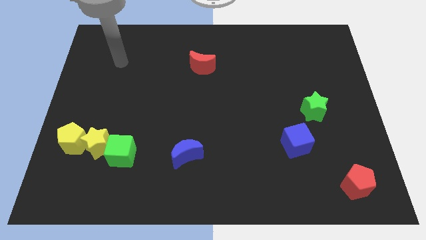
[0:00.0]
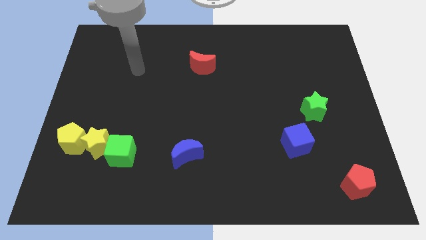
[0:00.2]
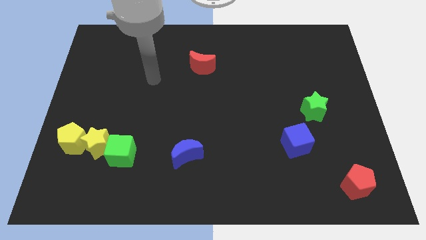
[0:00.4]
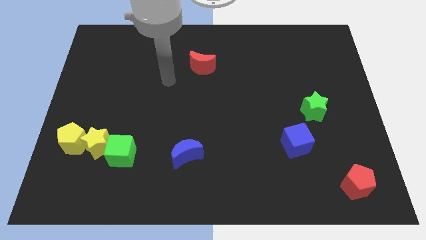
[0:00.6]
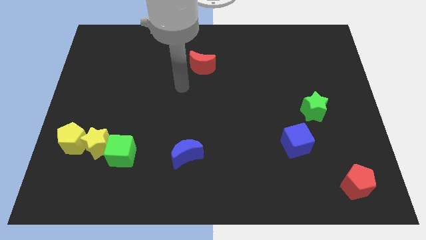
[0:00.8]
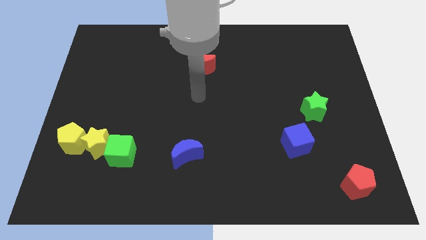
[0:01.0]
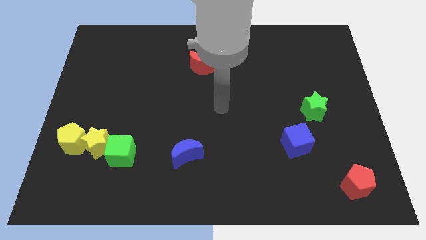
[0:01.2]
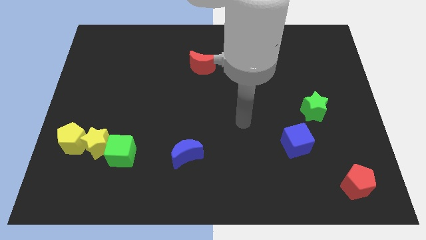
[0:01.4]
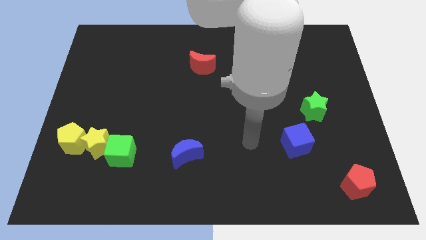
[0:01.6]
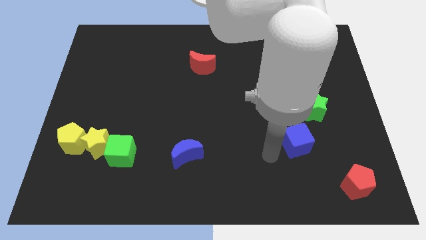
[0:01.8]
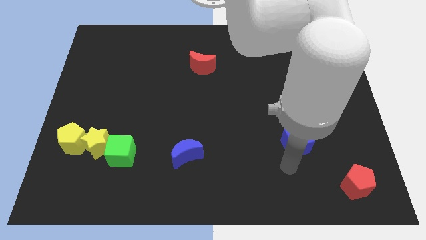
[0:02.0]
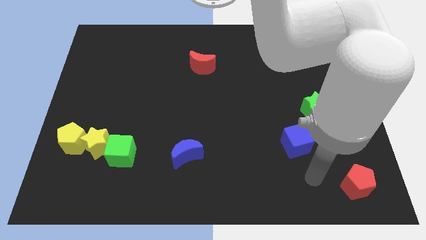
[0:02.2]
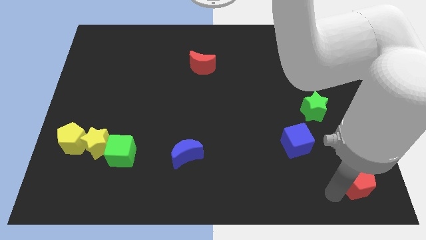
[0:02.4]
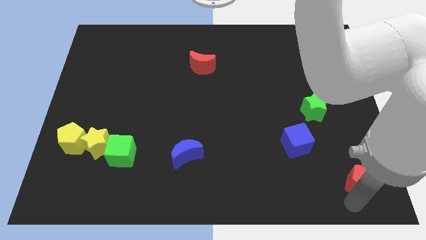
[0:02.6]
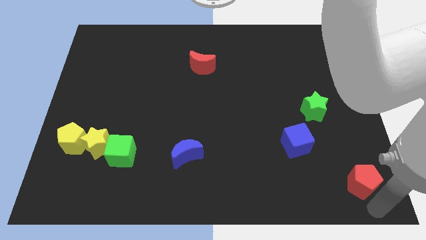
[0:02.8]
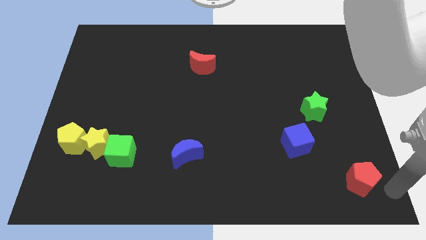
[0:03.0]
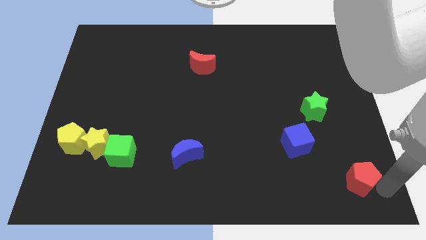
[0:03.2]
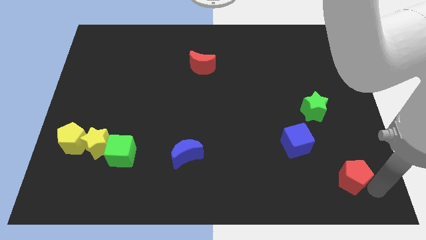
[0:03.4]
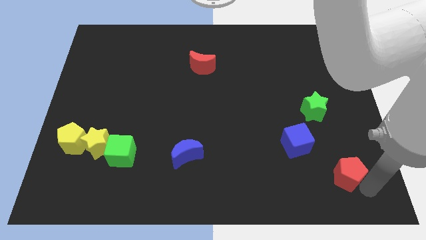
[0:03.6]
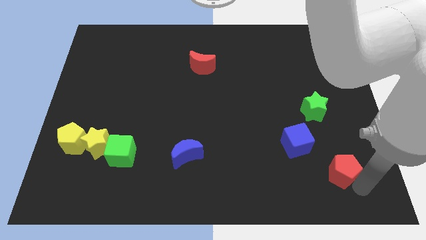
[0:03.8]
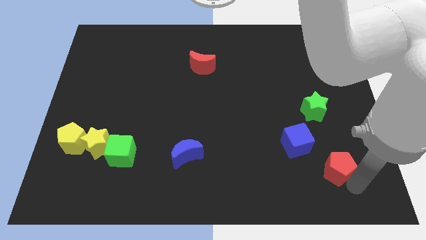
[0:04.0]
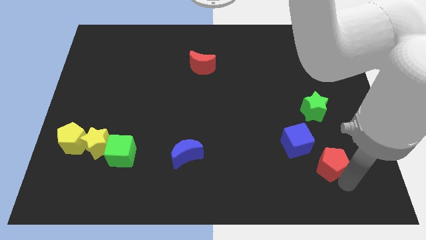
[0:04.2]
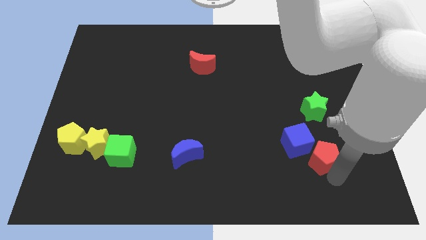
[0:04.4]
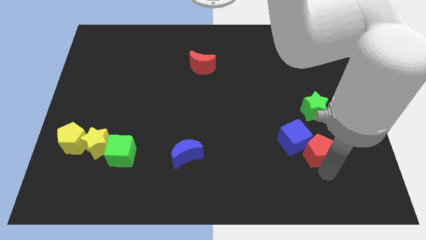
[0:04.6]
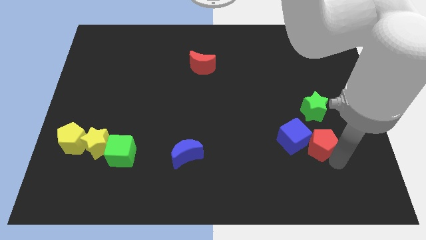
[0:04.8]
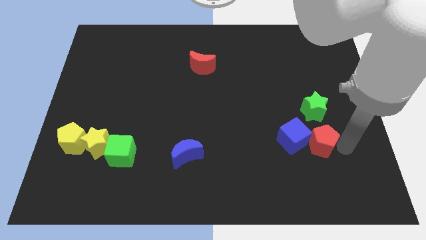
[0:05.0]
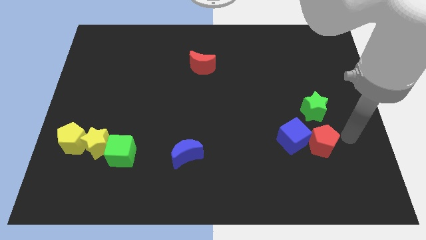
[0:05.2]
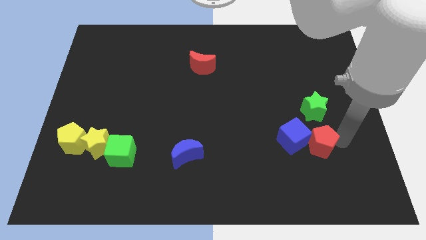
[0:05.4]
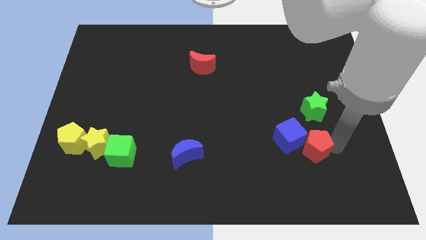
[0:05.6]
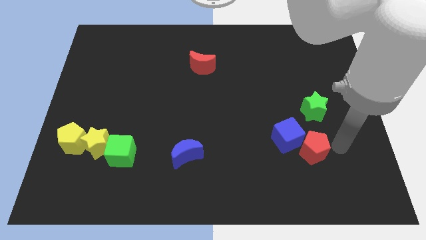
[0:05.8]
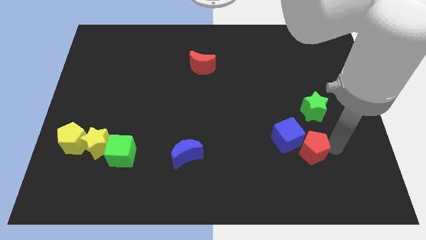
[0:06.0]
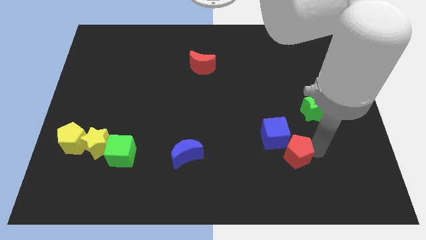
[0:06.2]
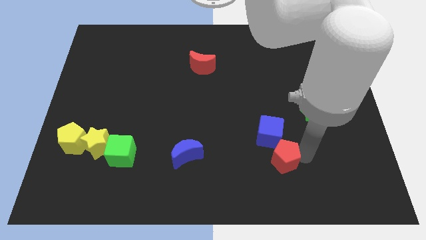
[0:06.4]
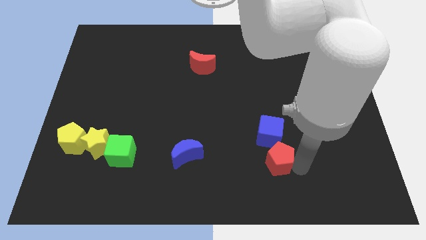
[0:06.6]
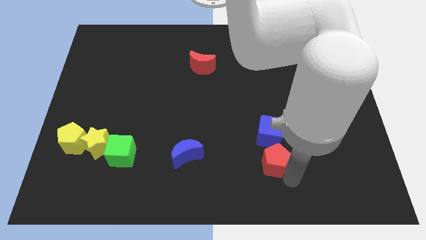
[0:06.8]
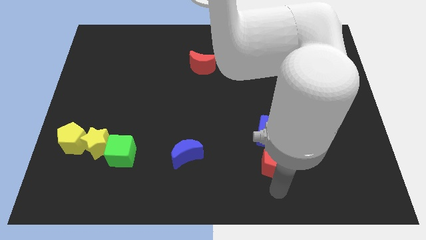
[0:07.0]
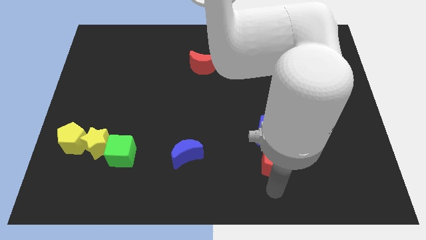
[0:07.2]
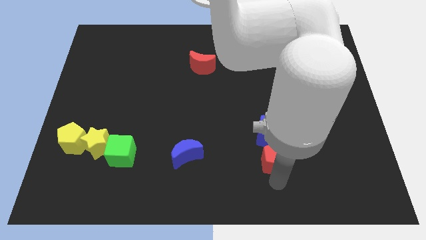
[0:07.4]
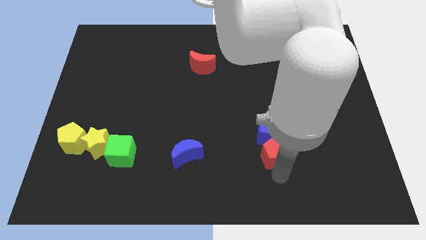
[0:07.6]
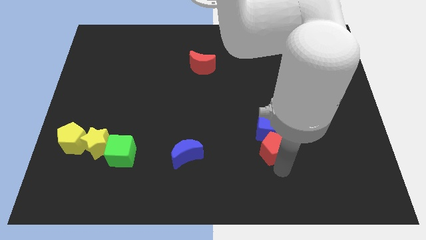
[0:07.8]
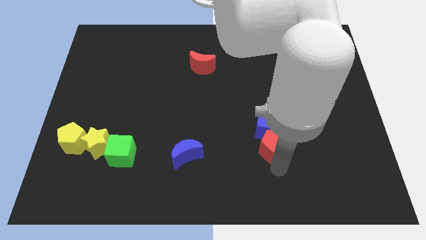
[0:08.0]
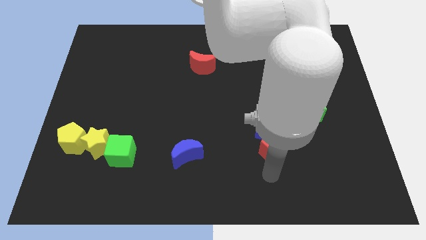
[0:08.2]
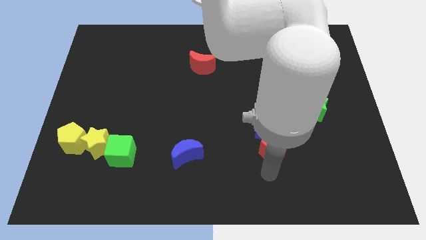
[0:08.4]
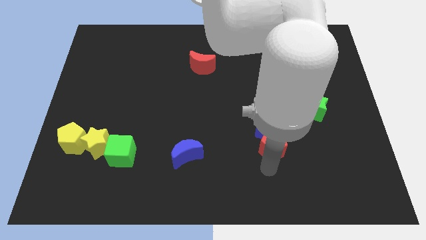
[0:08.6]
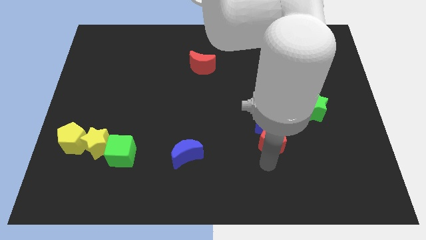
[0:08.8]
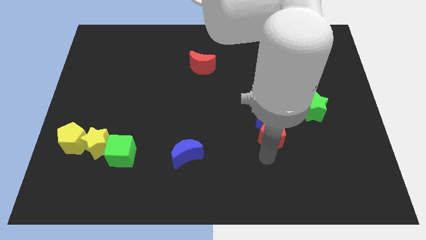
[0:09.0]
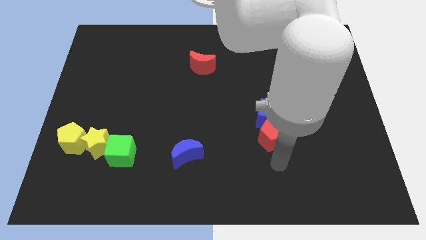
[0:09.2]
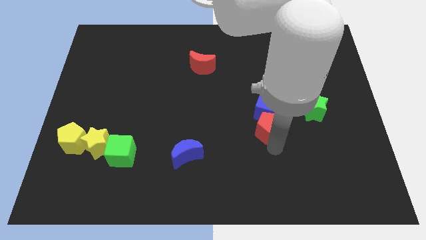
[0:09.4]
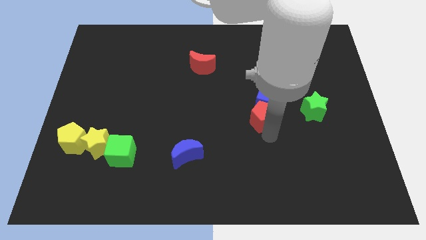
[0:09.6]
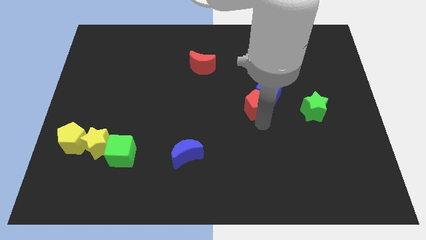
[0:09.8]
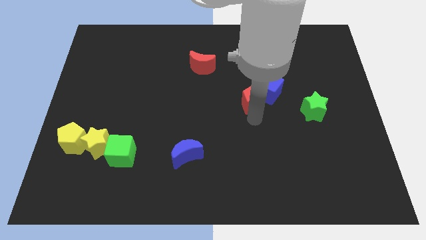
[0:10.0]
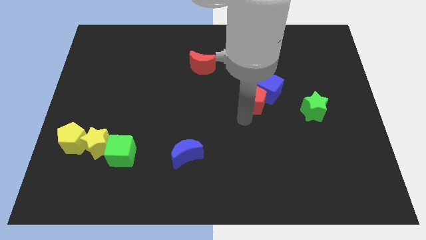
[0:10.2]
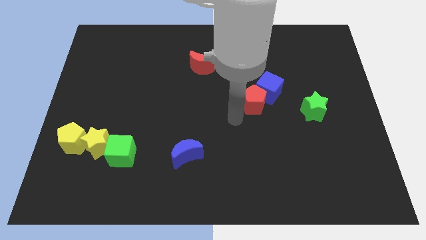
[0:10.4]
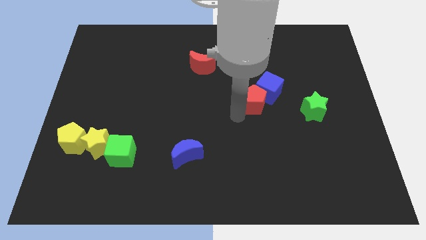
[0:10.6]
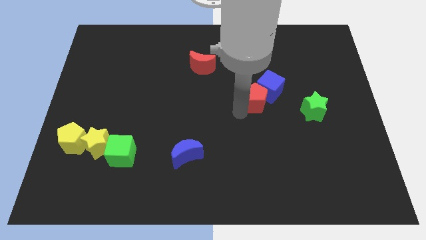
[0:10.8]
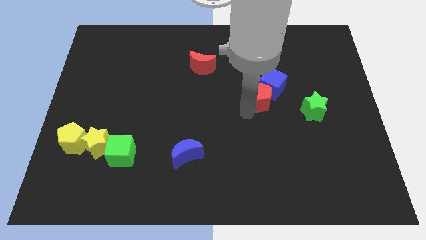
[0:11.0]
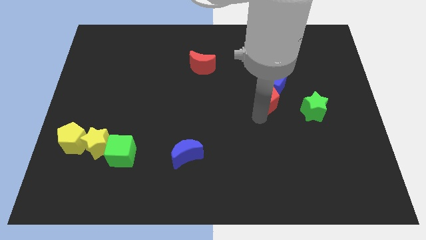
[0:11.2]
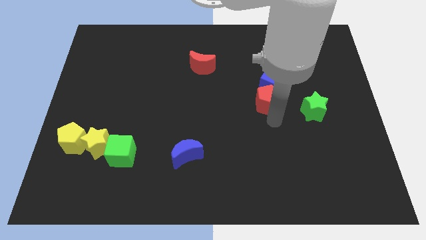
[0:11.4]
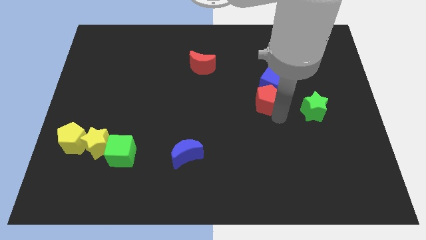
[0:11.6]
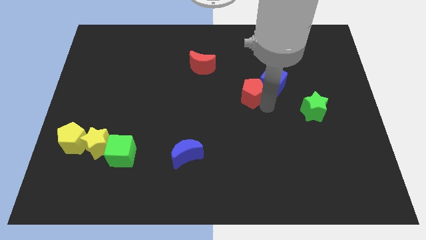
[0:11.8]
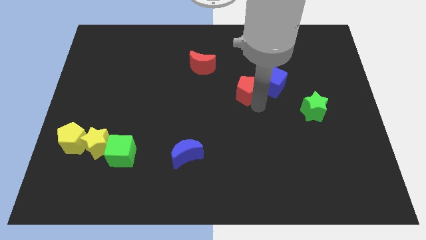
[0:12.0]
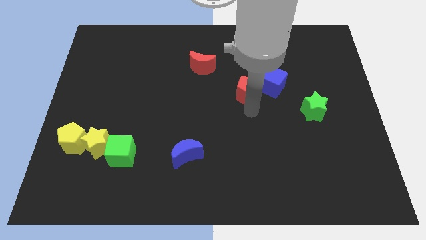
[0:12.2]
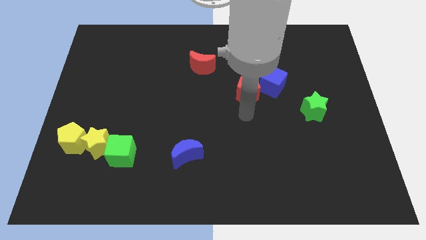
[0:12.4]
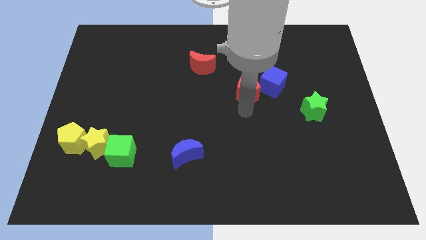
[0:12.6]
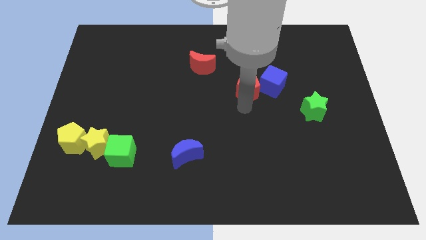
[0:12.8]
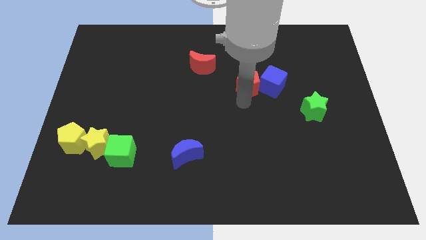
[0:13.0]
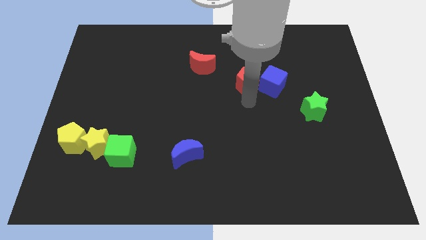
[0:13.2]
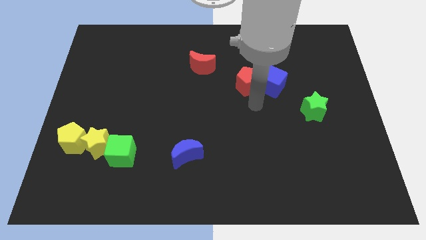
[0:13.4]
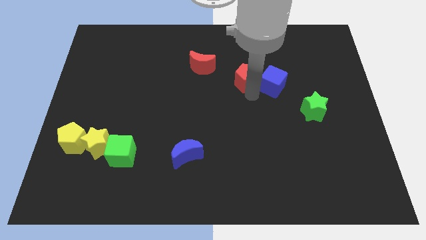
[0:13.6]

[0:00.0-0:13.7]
put the red pentagon to the right of the red moon

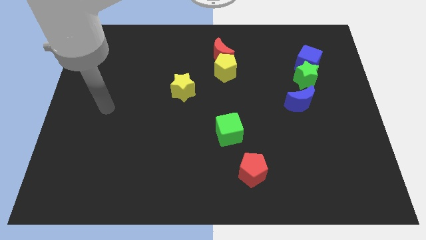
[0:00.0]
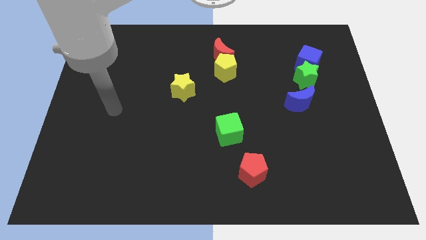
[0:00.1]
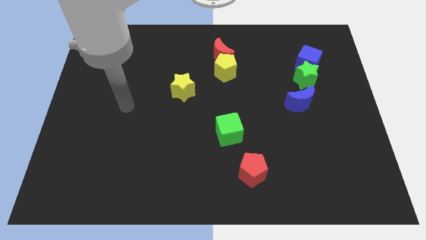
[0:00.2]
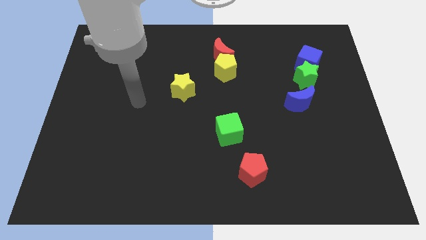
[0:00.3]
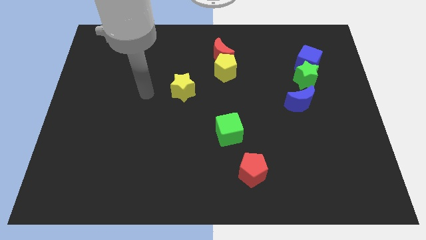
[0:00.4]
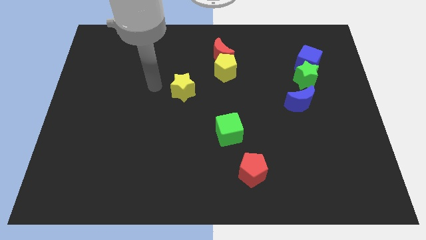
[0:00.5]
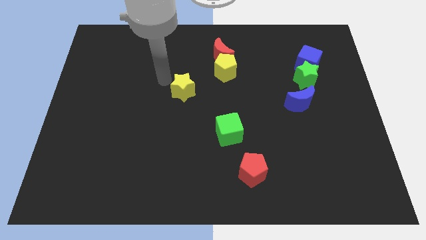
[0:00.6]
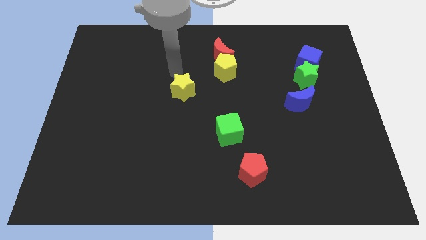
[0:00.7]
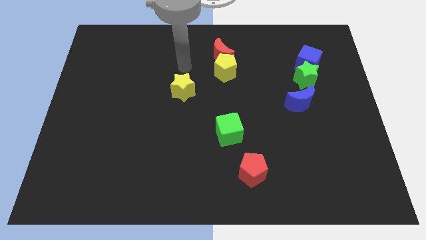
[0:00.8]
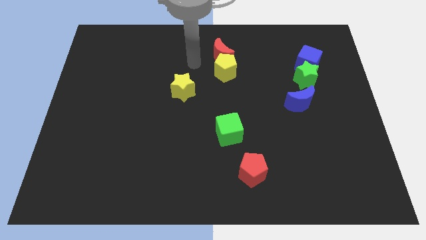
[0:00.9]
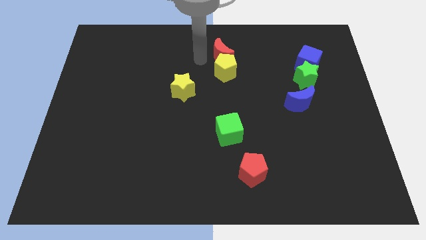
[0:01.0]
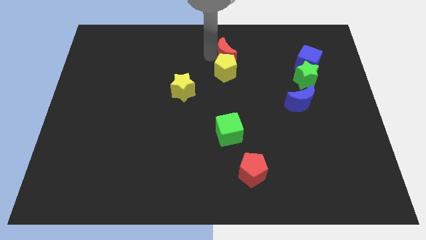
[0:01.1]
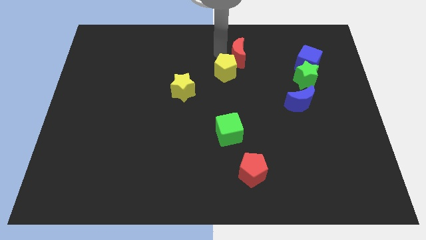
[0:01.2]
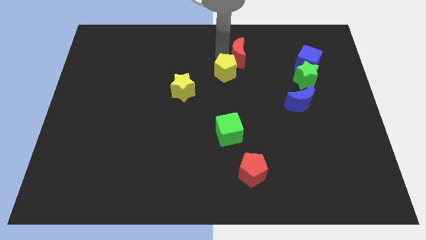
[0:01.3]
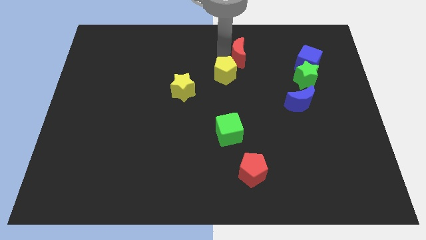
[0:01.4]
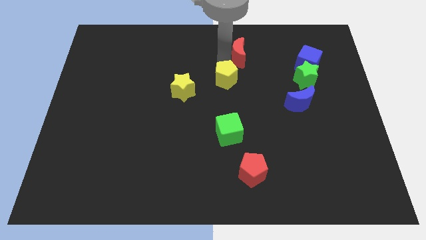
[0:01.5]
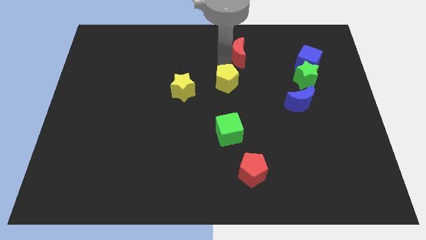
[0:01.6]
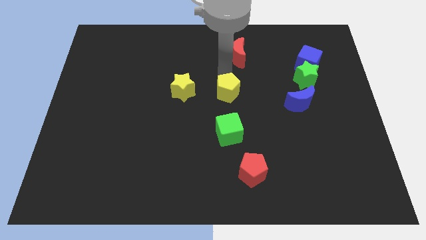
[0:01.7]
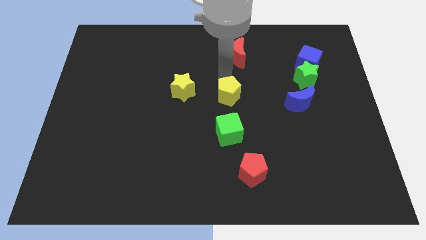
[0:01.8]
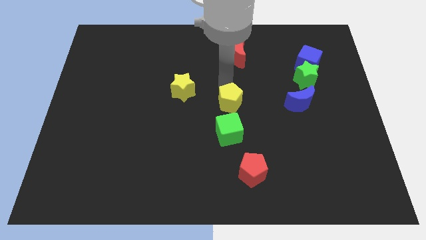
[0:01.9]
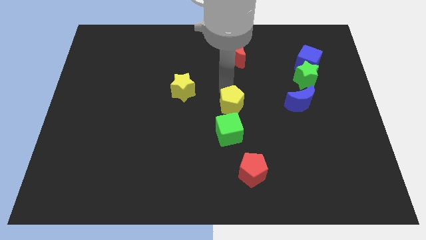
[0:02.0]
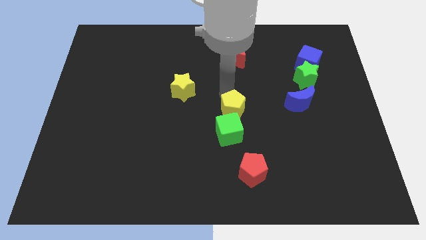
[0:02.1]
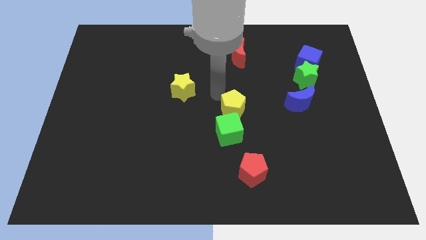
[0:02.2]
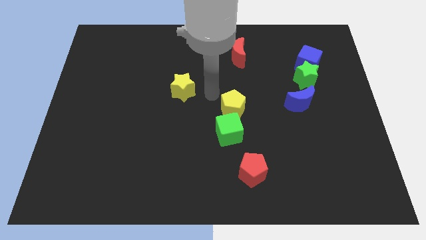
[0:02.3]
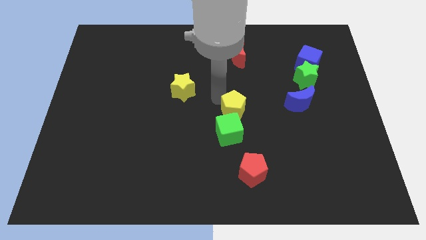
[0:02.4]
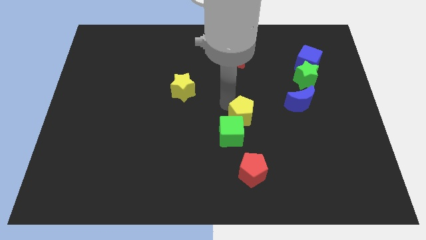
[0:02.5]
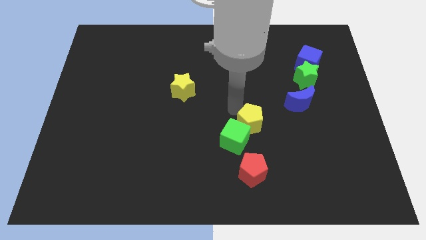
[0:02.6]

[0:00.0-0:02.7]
push the yellow pentagon right of the green cube
